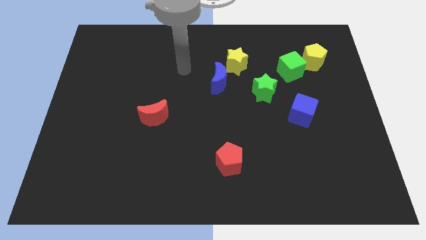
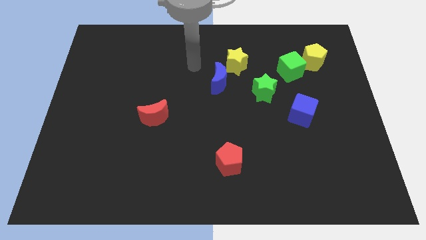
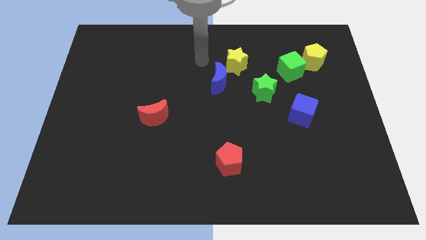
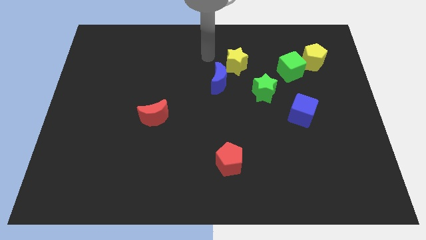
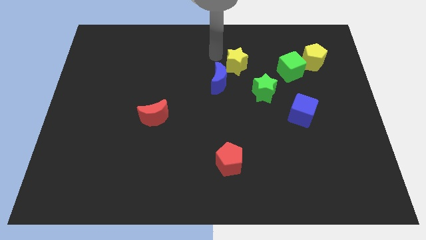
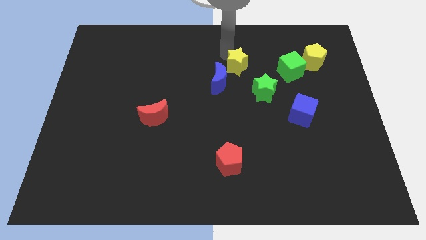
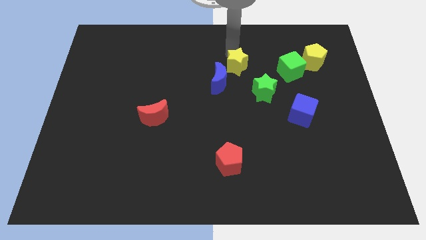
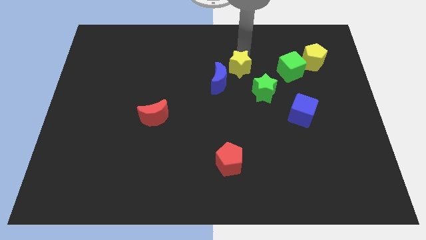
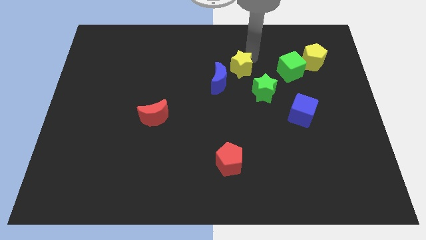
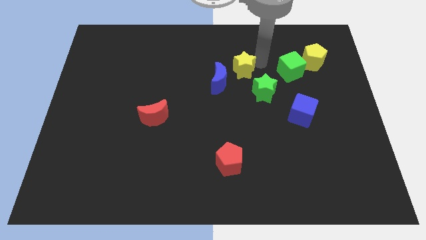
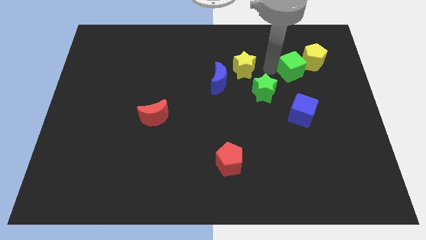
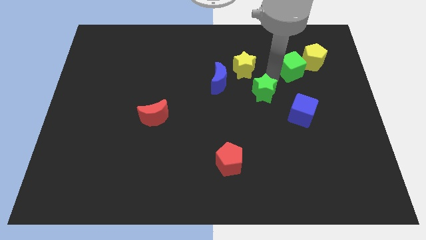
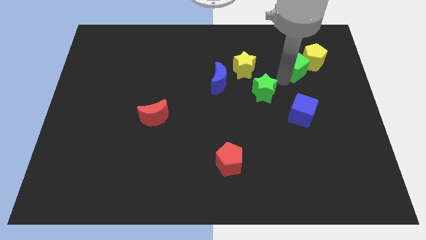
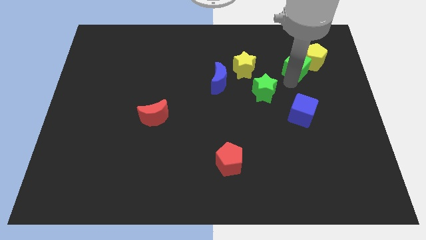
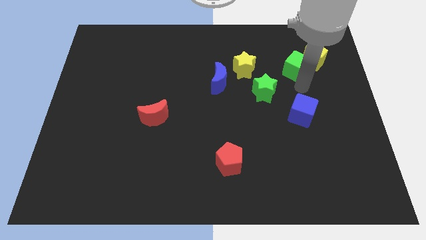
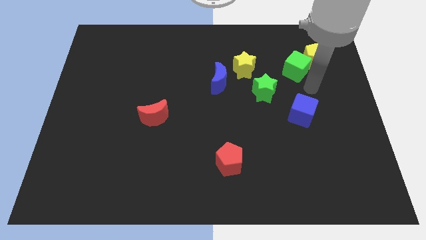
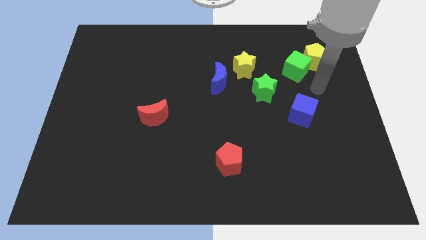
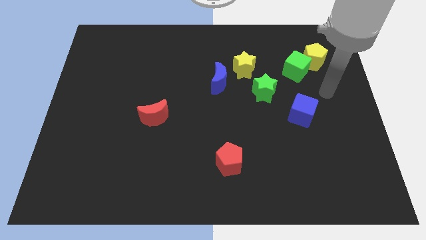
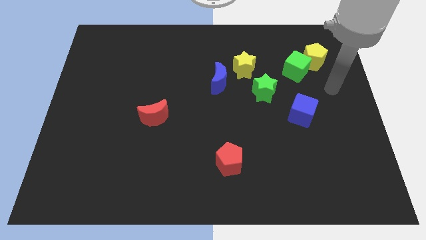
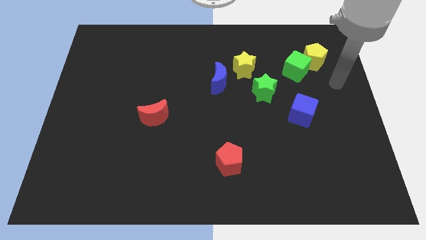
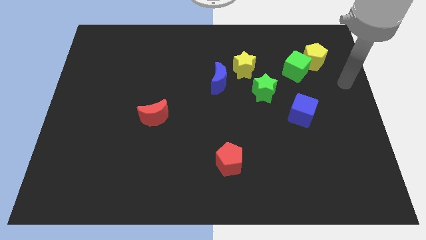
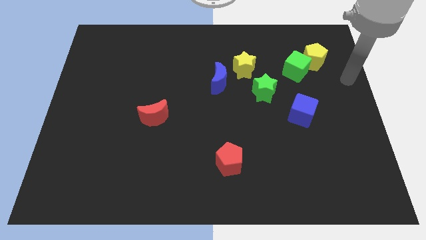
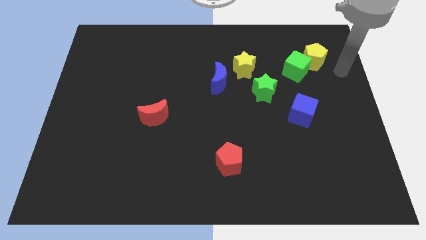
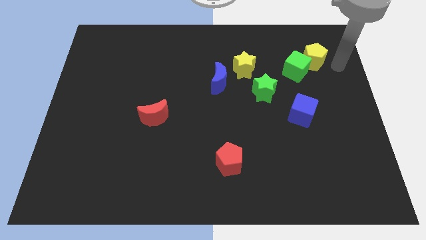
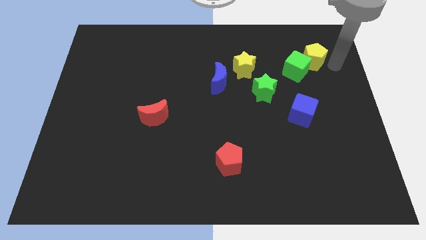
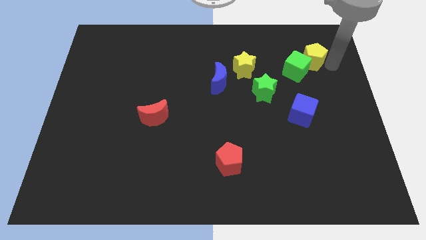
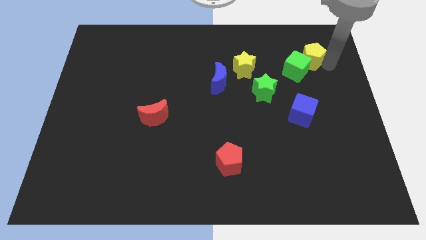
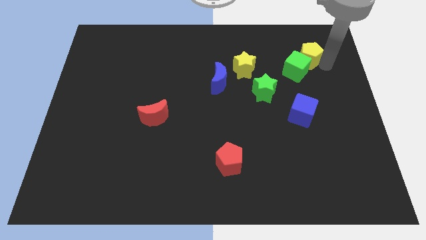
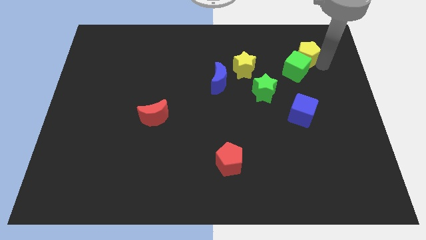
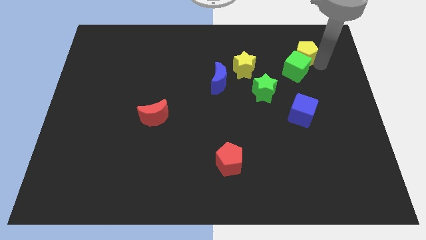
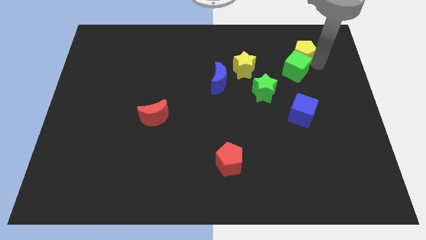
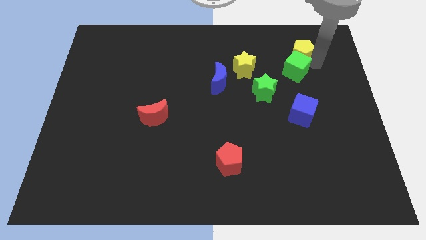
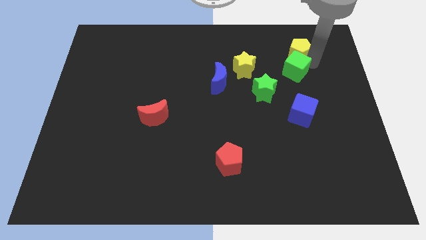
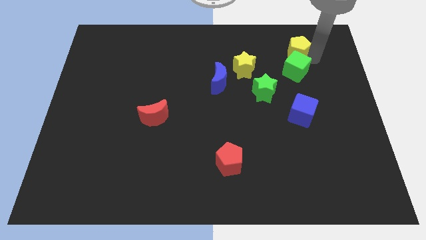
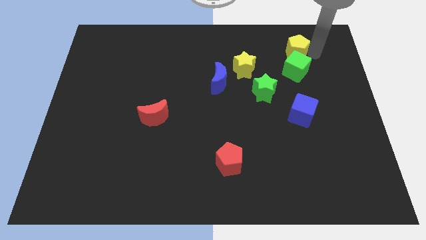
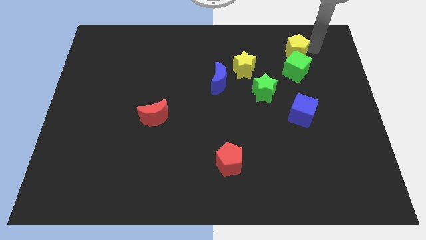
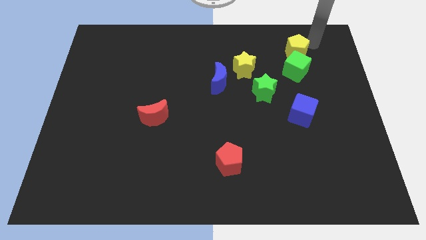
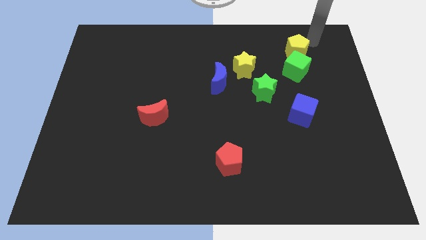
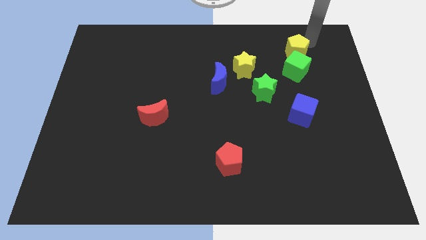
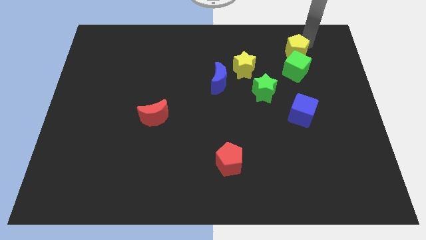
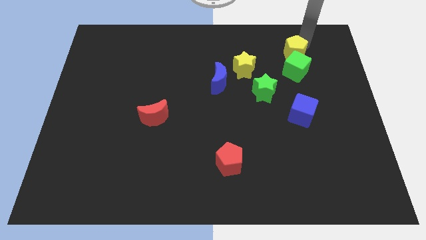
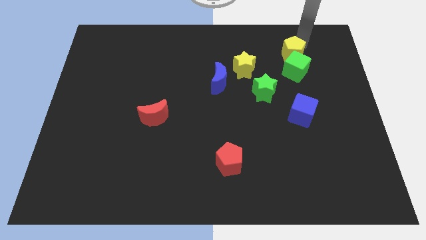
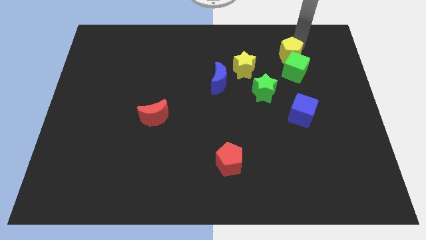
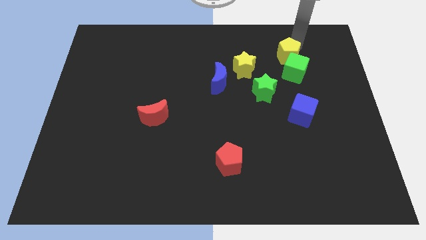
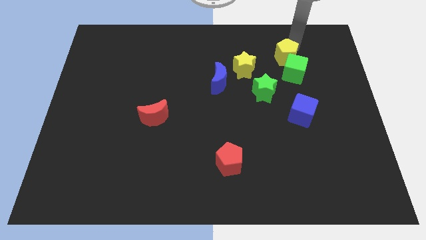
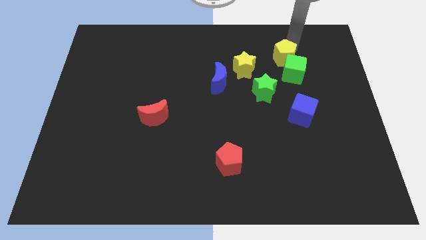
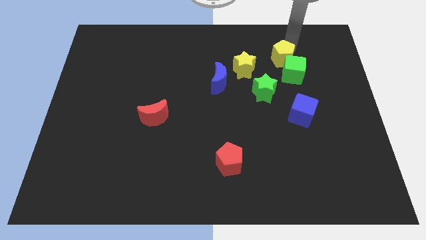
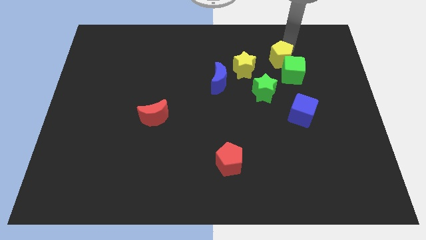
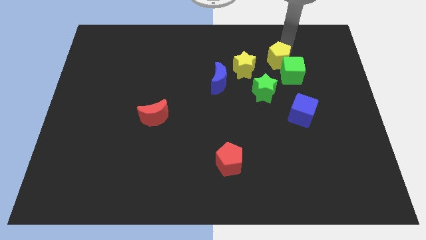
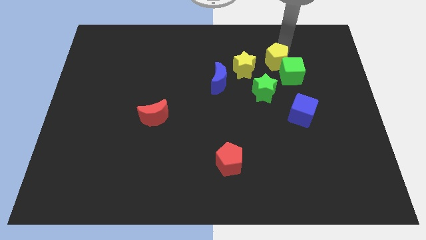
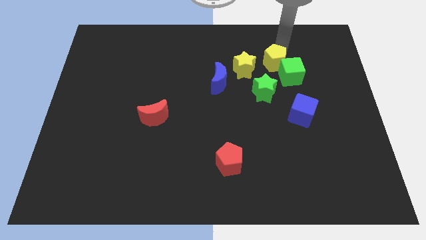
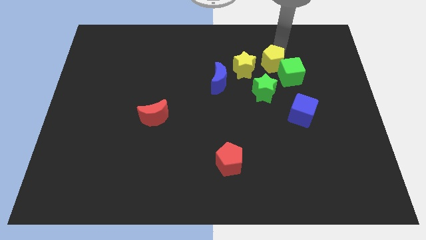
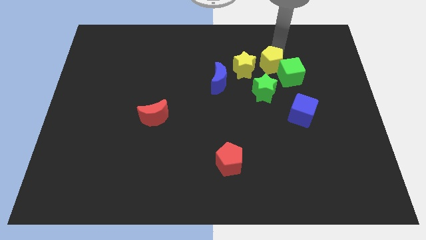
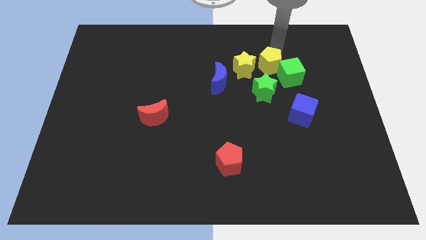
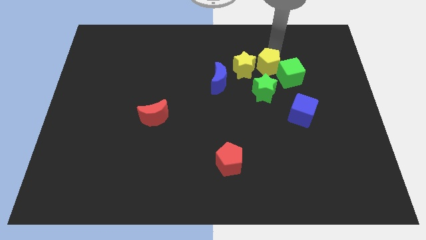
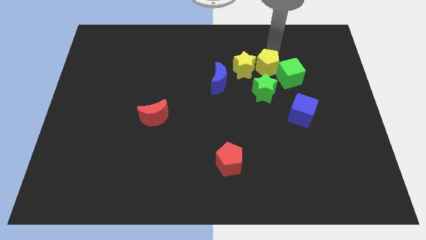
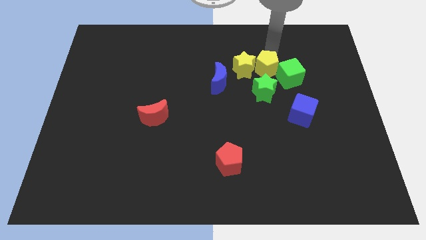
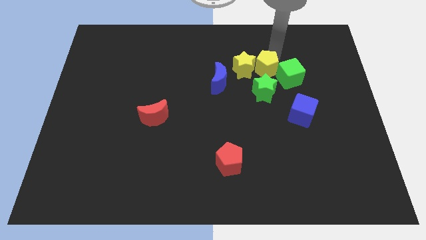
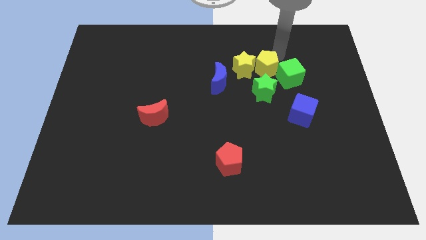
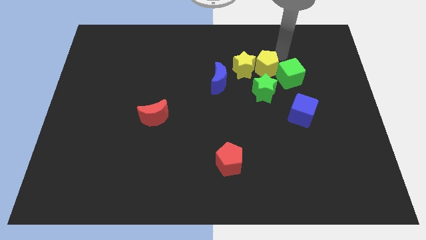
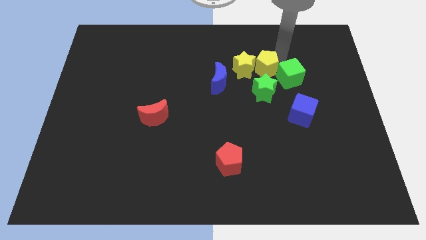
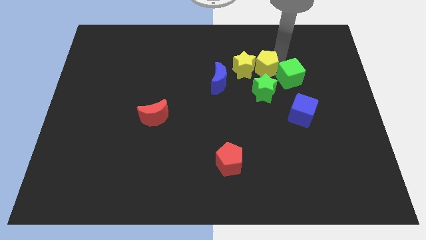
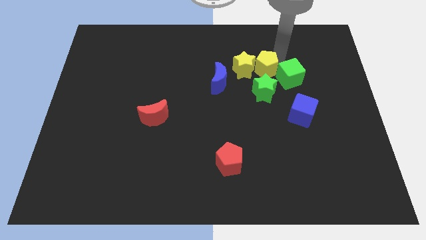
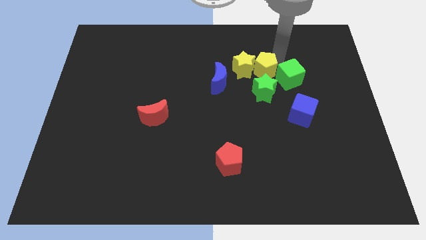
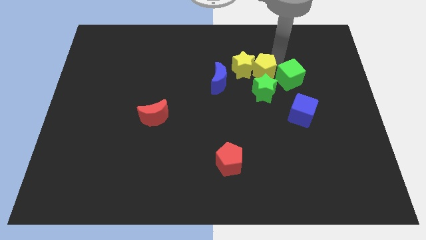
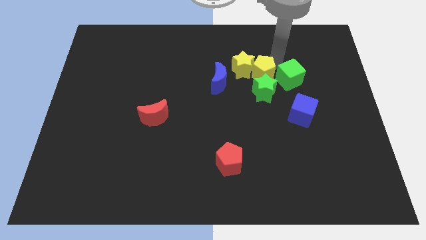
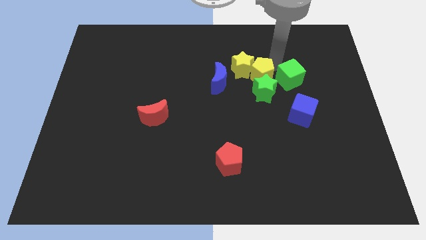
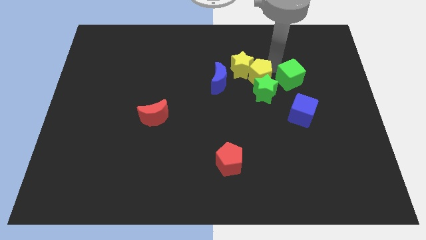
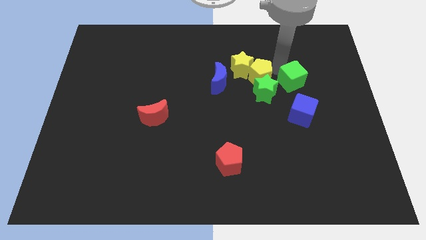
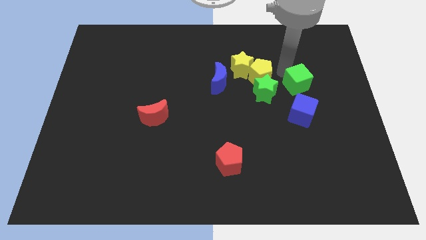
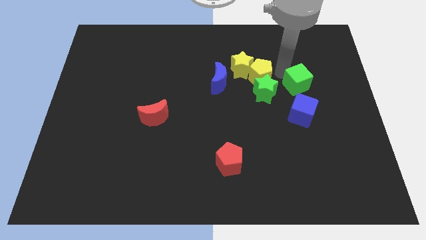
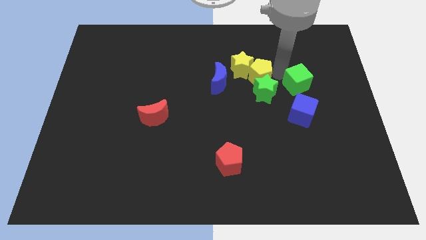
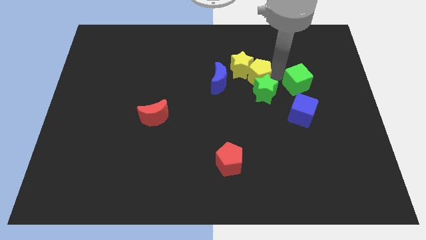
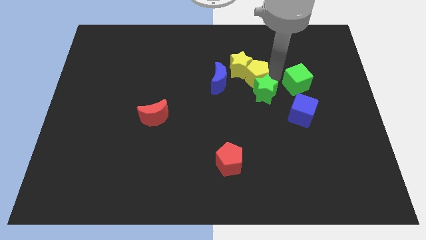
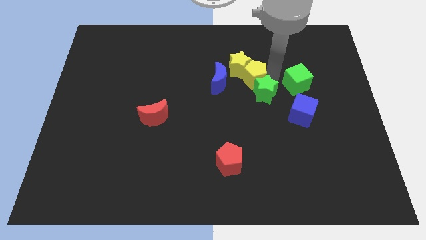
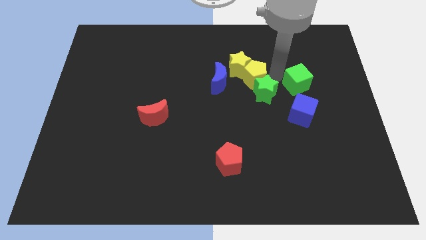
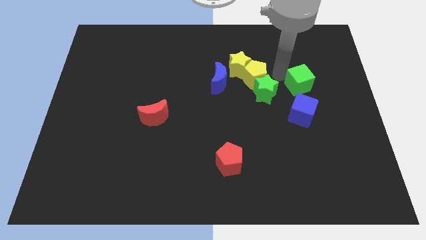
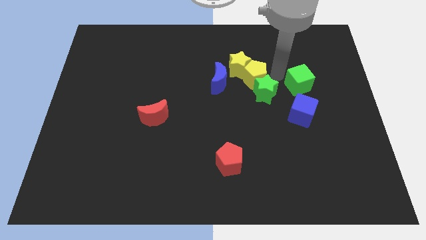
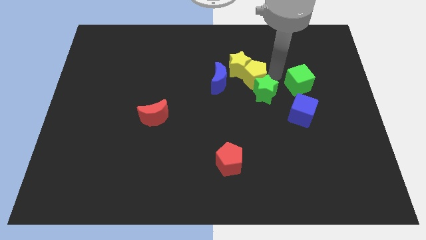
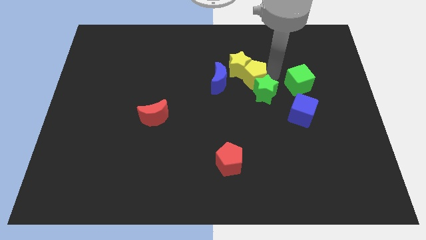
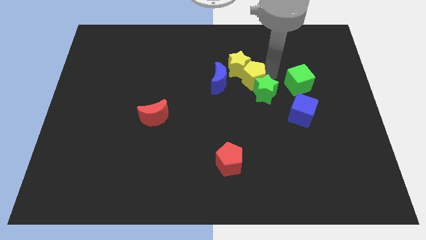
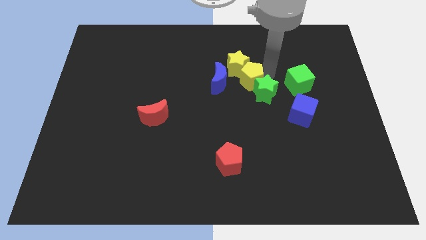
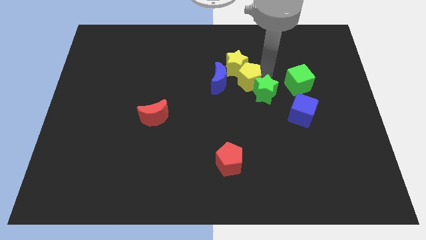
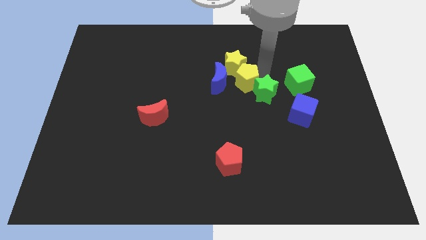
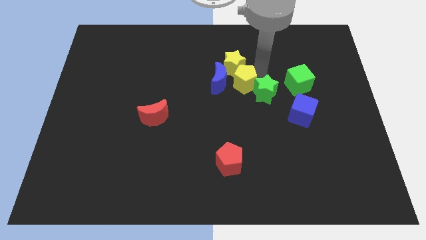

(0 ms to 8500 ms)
put the yellow pentagon to the blue moon
